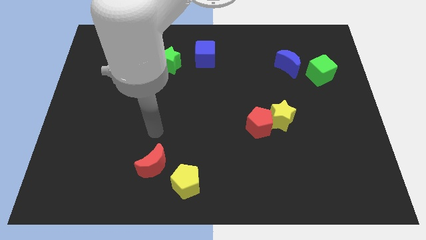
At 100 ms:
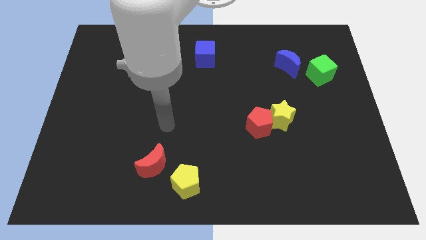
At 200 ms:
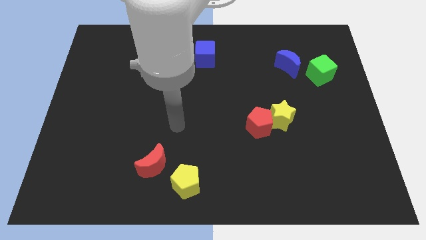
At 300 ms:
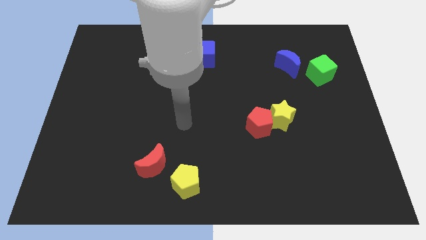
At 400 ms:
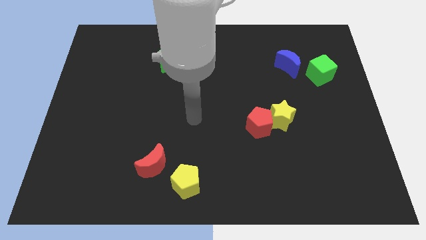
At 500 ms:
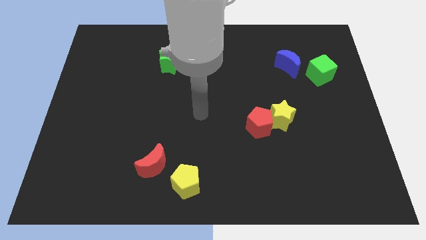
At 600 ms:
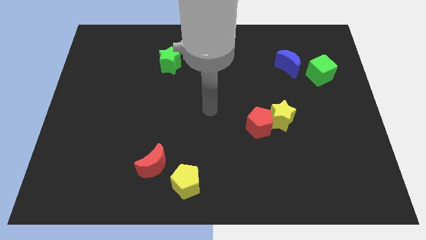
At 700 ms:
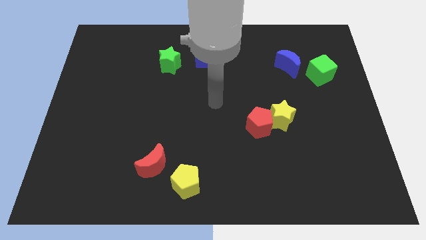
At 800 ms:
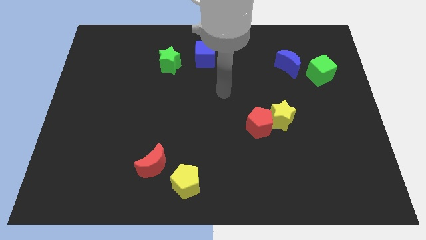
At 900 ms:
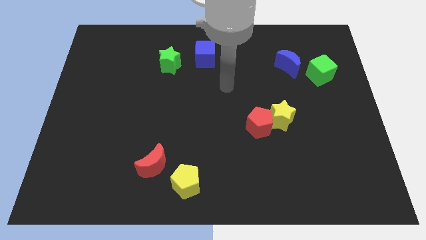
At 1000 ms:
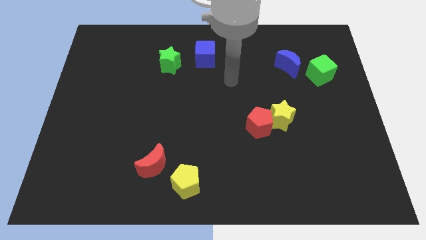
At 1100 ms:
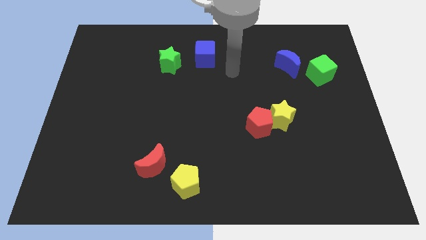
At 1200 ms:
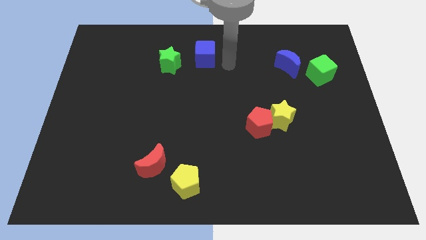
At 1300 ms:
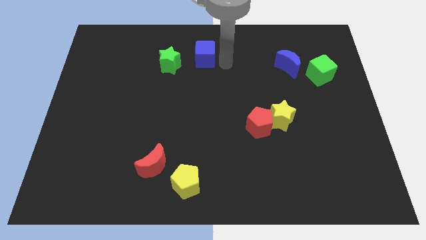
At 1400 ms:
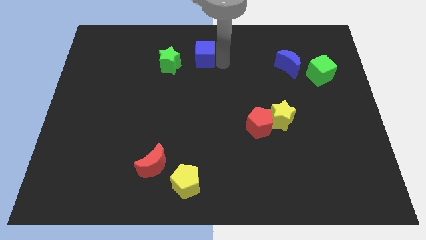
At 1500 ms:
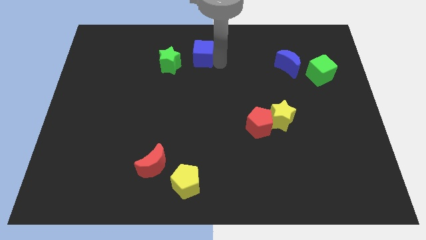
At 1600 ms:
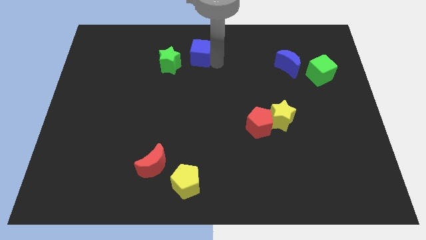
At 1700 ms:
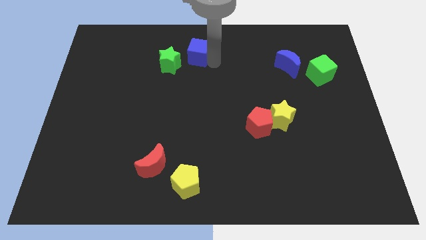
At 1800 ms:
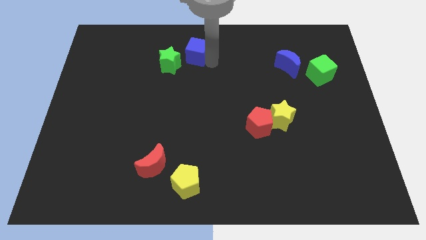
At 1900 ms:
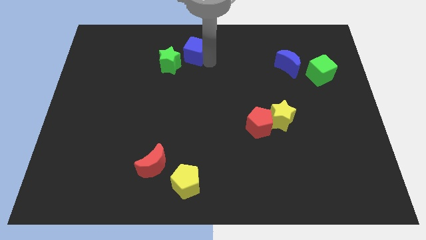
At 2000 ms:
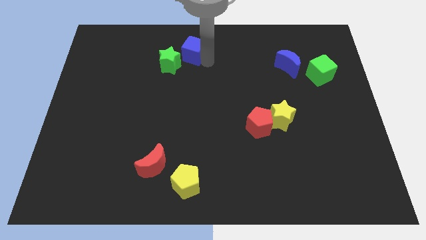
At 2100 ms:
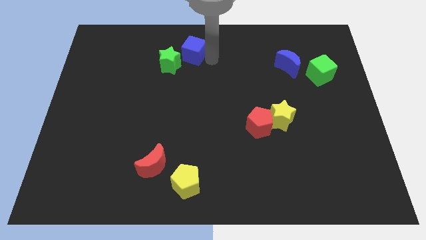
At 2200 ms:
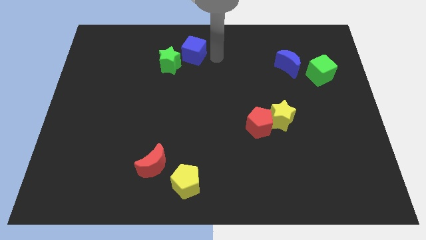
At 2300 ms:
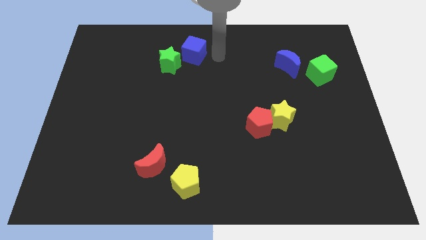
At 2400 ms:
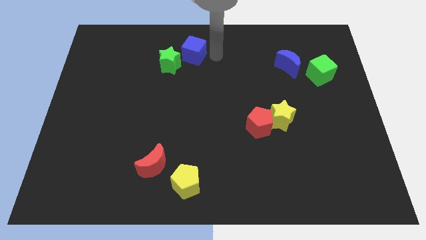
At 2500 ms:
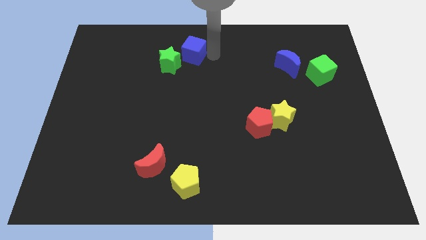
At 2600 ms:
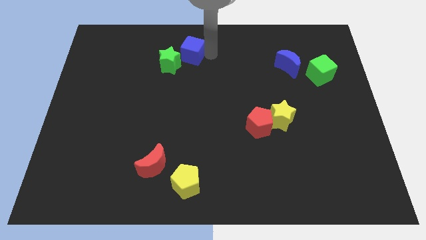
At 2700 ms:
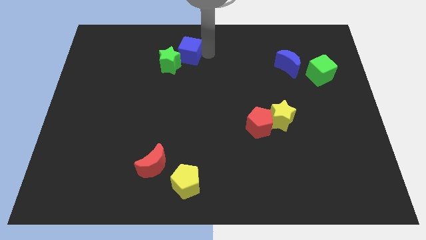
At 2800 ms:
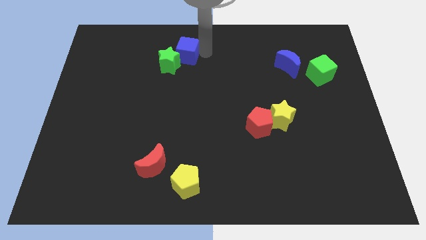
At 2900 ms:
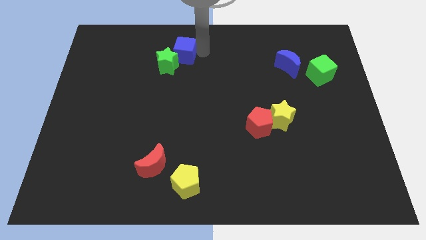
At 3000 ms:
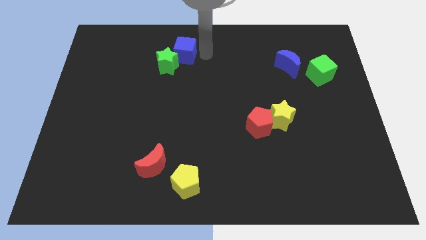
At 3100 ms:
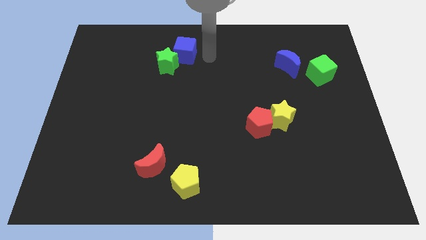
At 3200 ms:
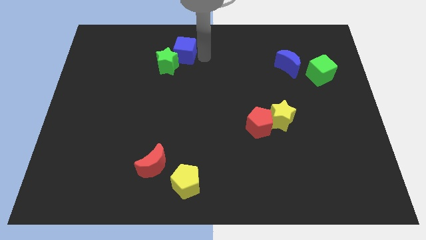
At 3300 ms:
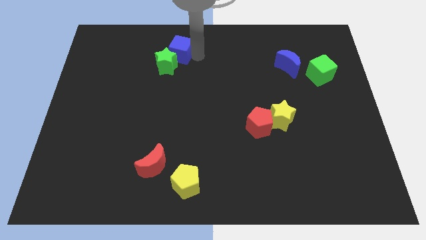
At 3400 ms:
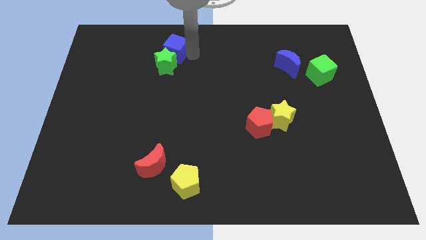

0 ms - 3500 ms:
slightly slide the blue cube to the left

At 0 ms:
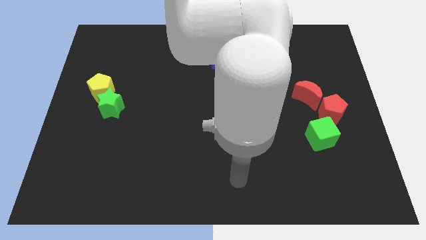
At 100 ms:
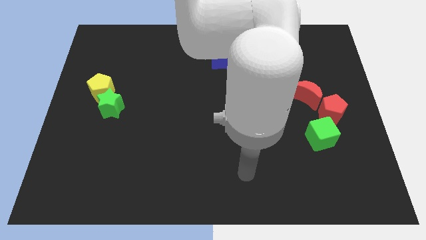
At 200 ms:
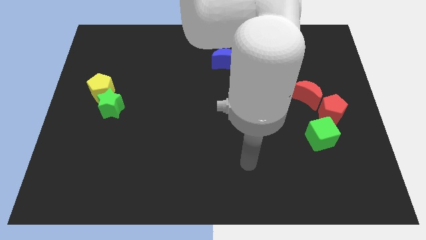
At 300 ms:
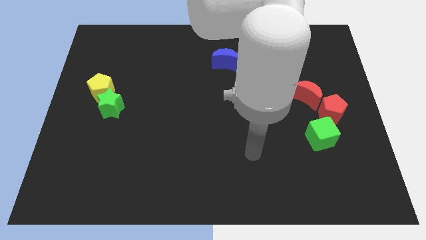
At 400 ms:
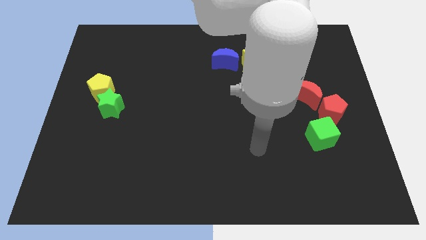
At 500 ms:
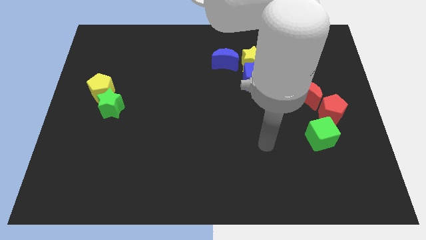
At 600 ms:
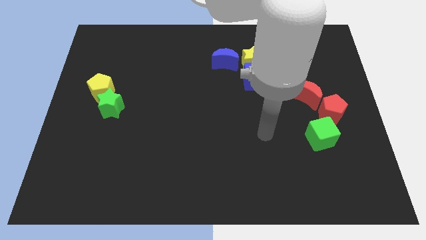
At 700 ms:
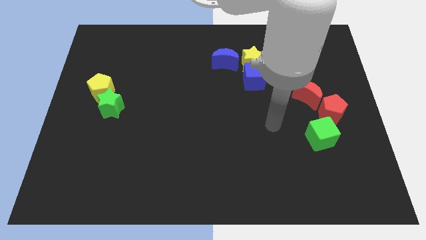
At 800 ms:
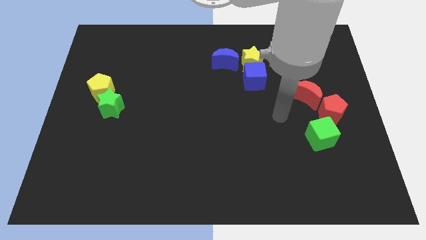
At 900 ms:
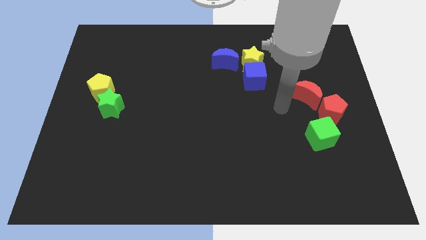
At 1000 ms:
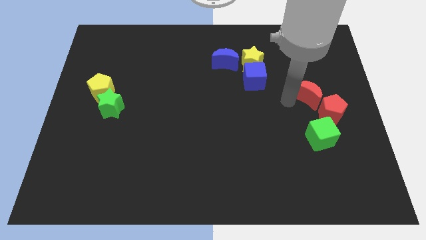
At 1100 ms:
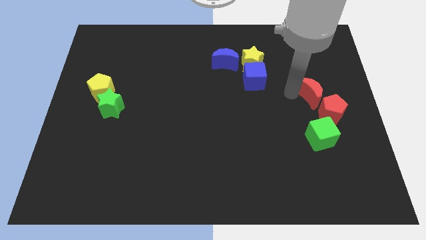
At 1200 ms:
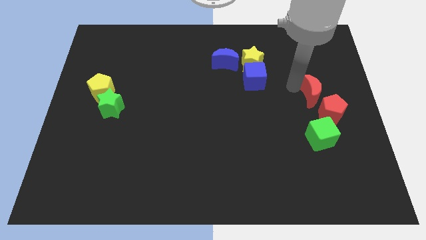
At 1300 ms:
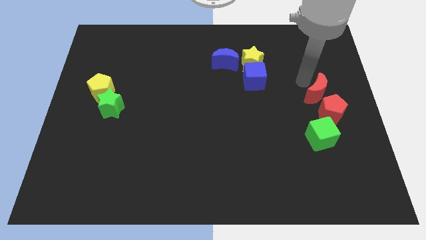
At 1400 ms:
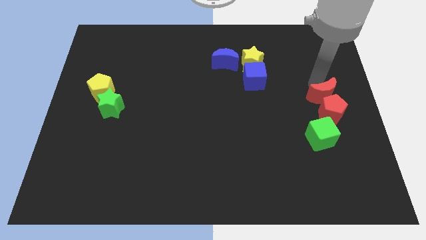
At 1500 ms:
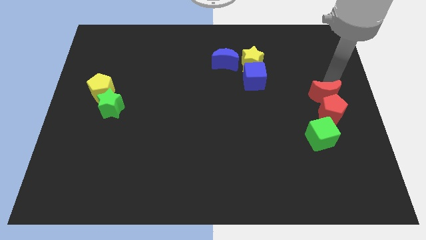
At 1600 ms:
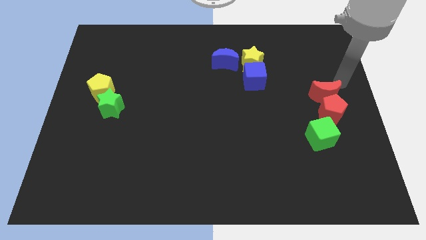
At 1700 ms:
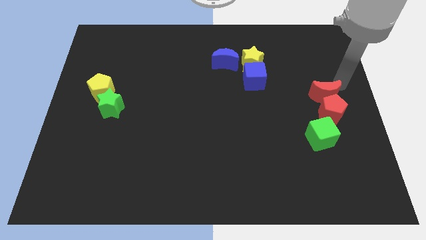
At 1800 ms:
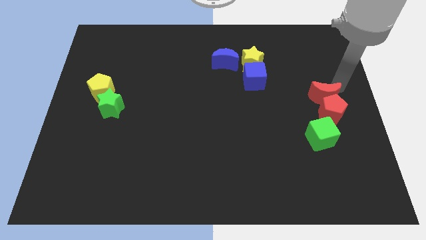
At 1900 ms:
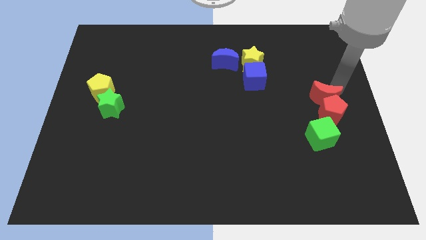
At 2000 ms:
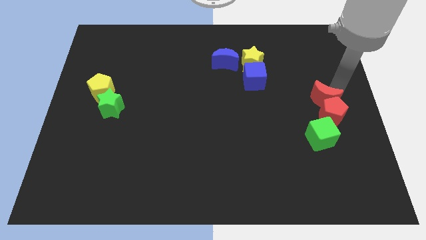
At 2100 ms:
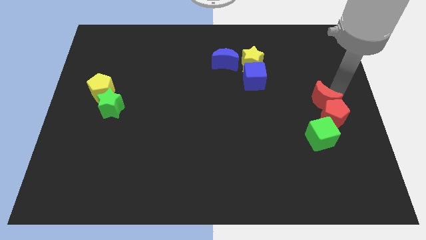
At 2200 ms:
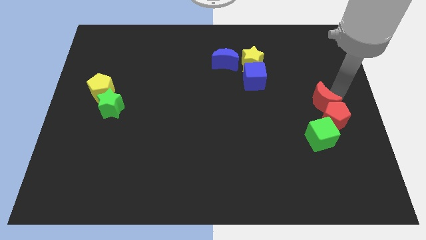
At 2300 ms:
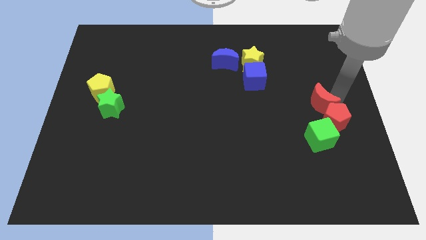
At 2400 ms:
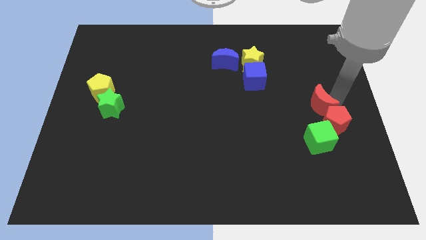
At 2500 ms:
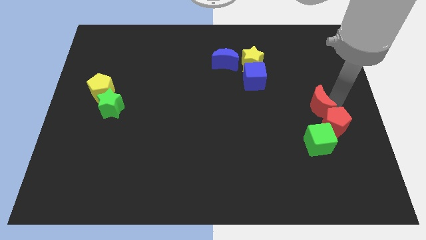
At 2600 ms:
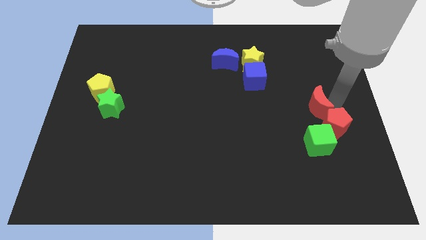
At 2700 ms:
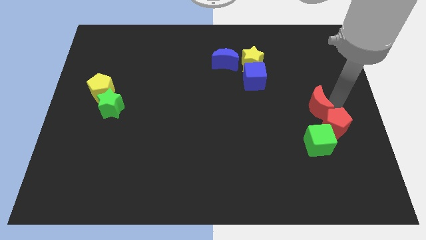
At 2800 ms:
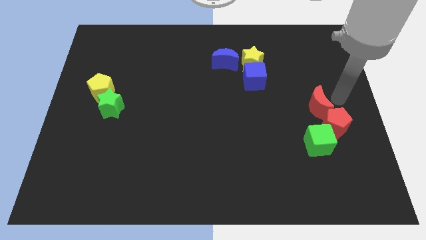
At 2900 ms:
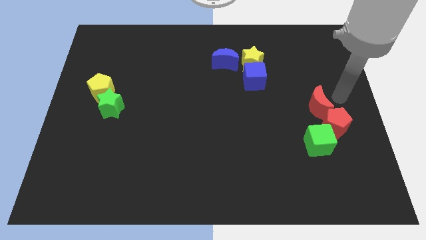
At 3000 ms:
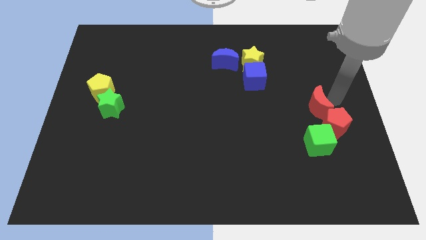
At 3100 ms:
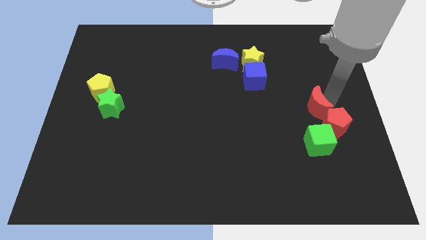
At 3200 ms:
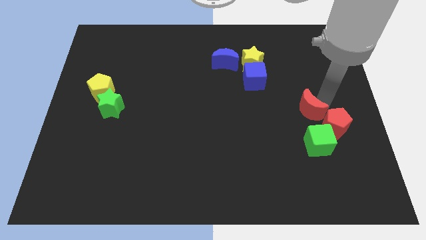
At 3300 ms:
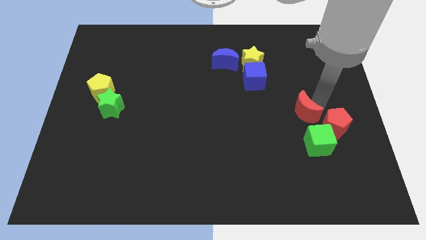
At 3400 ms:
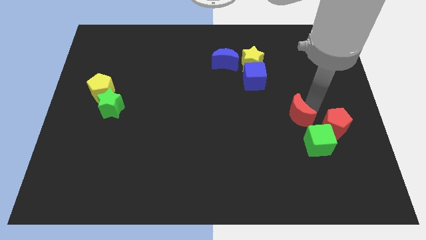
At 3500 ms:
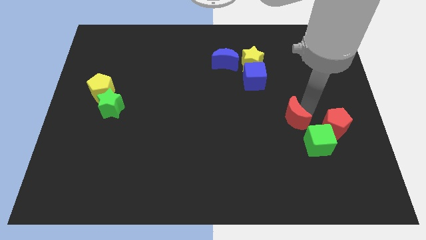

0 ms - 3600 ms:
move the red moon a little downwards and then to the left

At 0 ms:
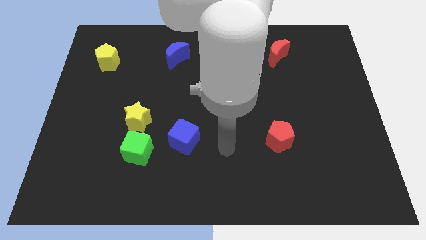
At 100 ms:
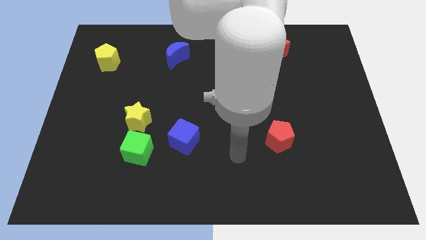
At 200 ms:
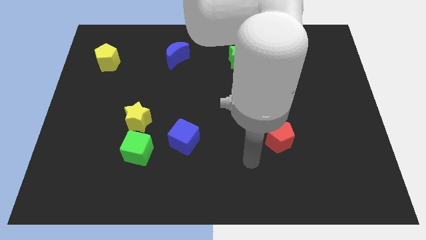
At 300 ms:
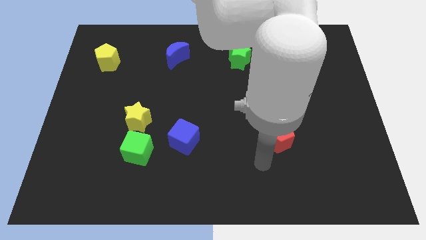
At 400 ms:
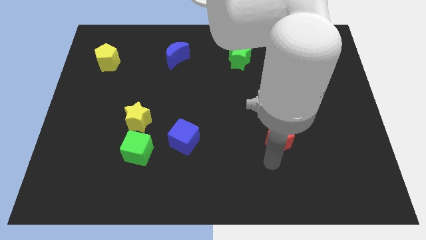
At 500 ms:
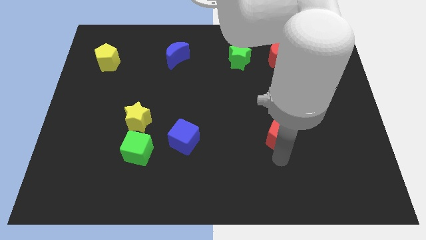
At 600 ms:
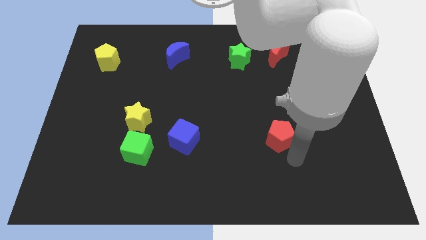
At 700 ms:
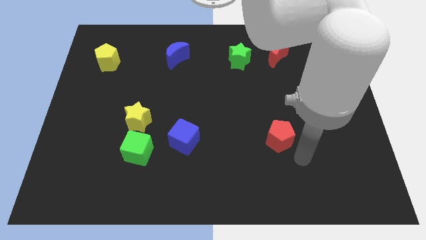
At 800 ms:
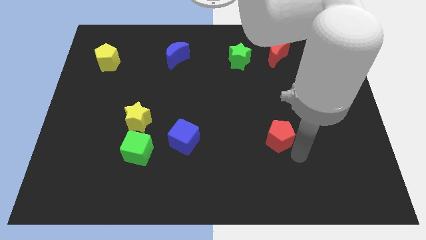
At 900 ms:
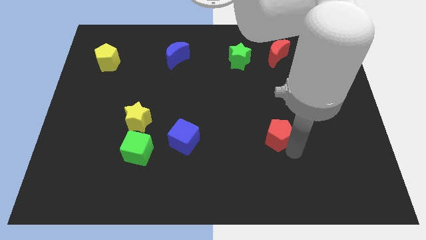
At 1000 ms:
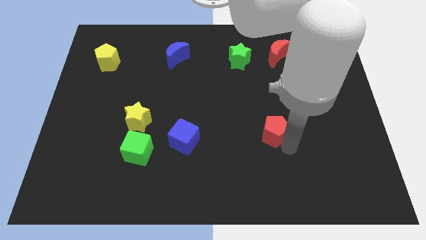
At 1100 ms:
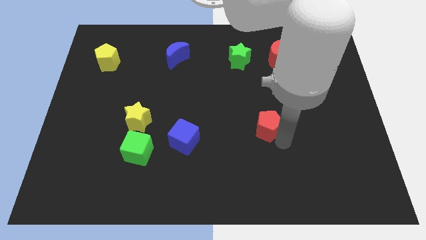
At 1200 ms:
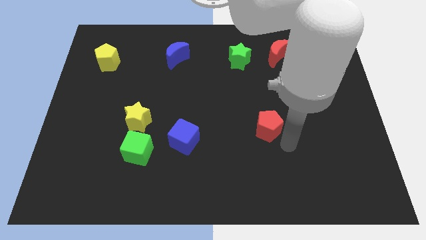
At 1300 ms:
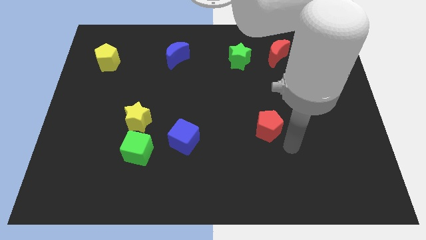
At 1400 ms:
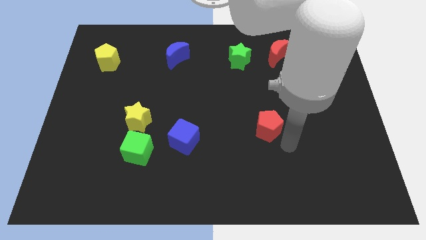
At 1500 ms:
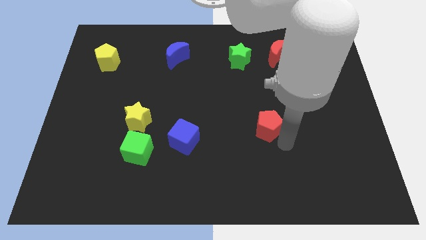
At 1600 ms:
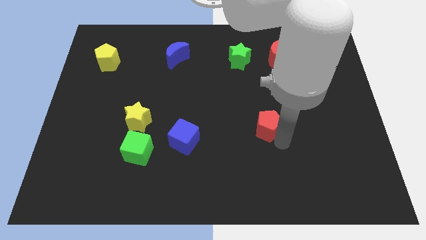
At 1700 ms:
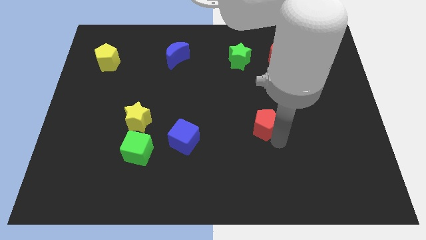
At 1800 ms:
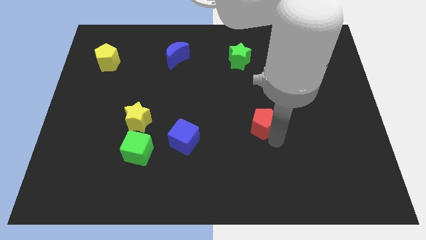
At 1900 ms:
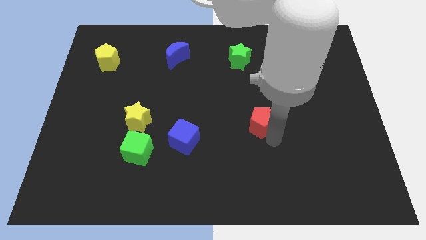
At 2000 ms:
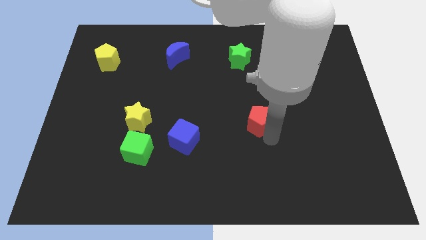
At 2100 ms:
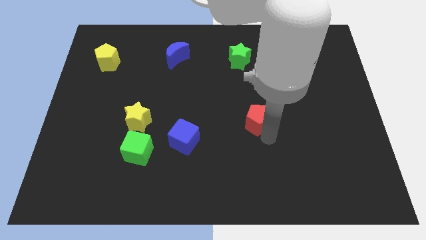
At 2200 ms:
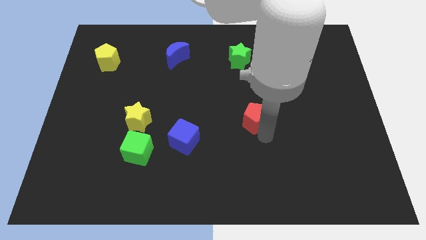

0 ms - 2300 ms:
slide the red pentagon a little bit diagonally up and to the left
